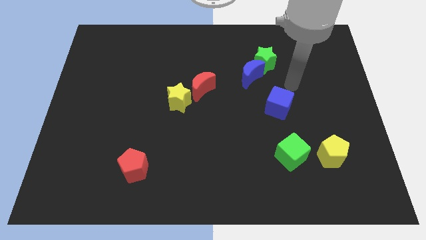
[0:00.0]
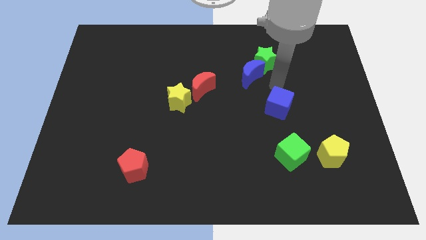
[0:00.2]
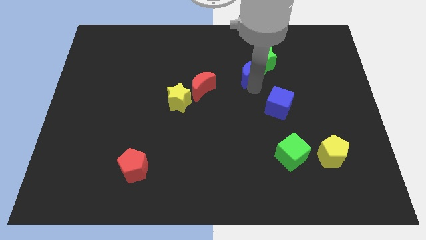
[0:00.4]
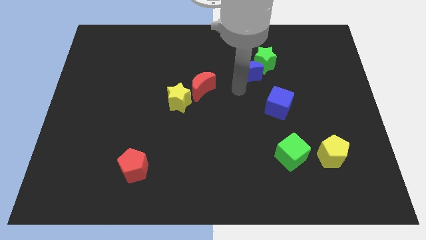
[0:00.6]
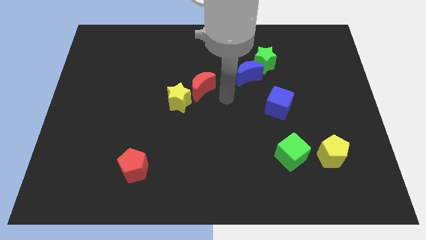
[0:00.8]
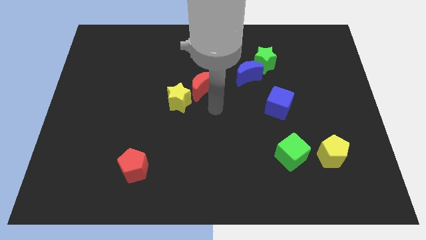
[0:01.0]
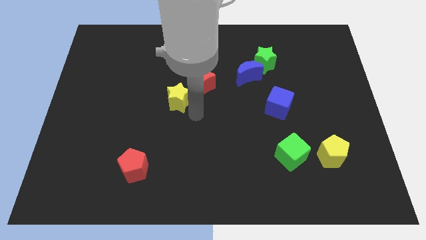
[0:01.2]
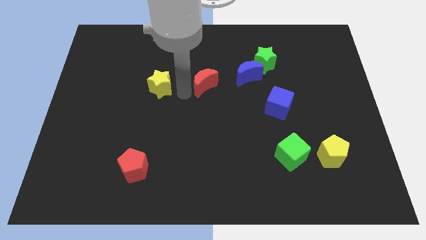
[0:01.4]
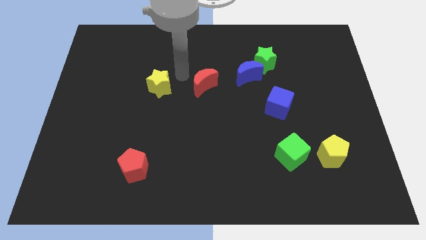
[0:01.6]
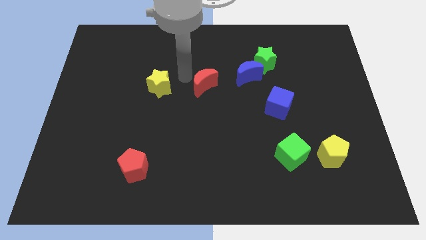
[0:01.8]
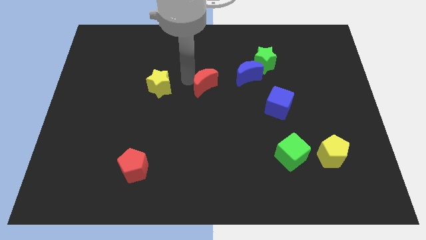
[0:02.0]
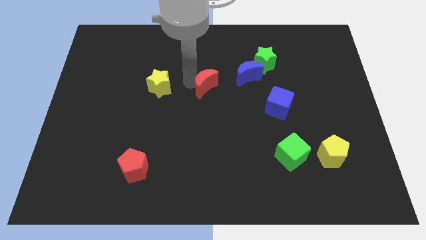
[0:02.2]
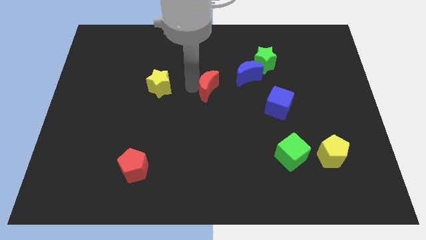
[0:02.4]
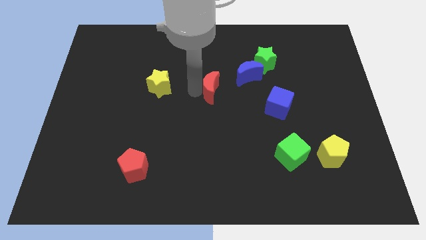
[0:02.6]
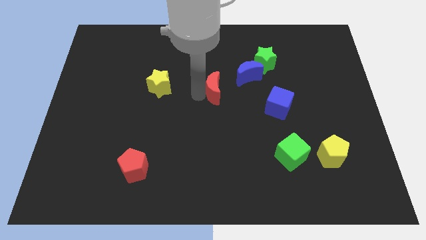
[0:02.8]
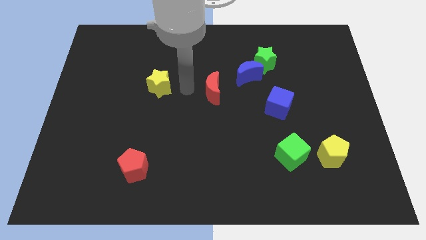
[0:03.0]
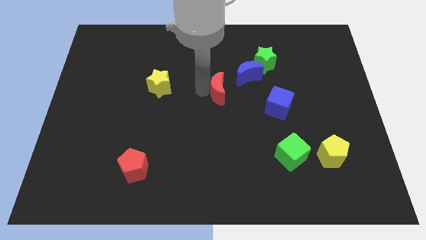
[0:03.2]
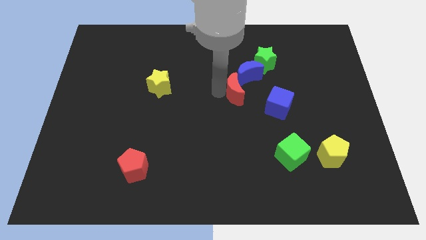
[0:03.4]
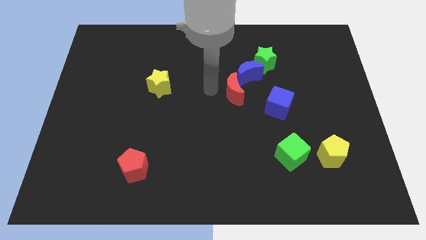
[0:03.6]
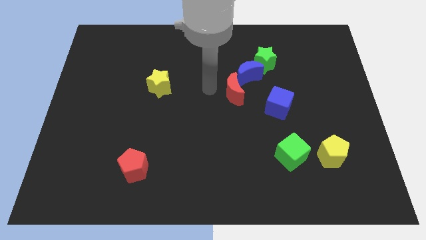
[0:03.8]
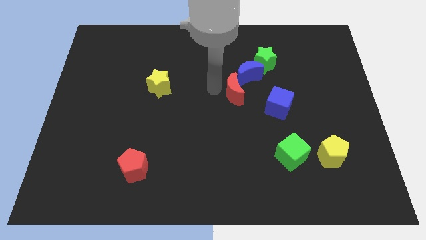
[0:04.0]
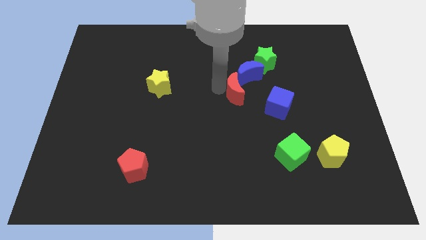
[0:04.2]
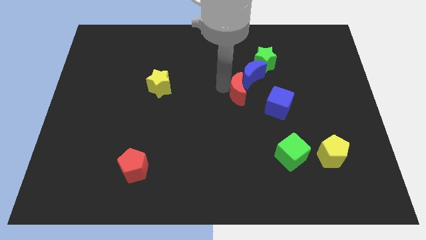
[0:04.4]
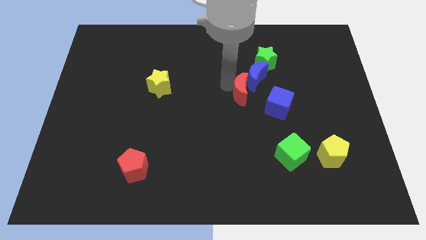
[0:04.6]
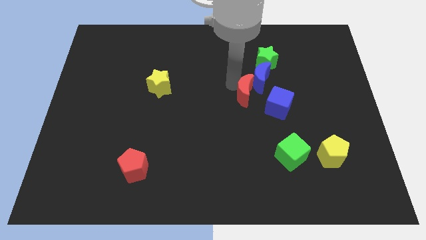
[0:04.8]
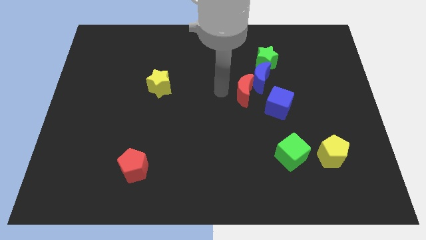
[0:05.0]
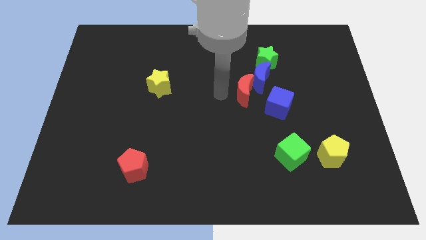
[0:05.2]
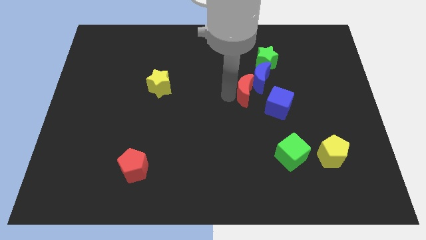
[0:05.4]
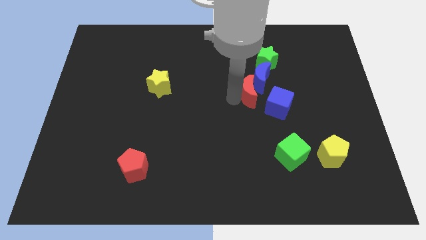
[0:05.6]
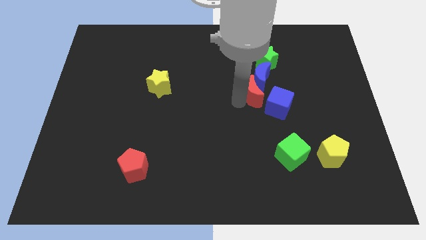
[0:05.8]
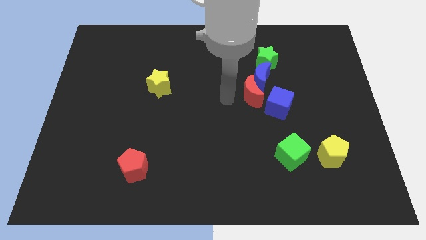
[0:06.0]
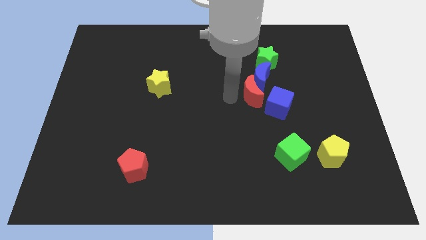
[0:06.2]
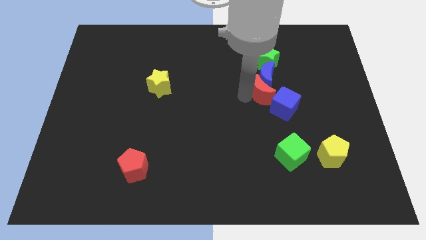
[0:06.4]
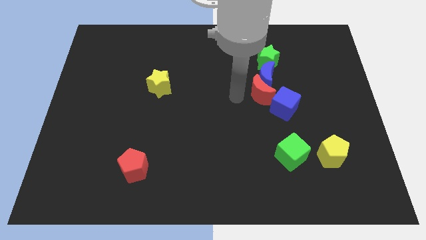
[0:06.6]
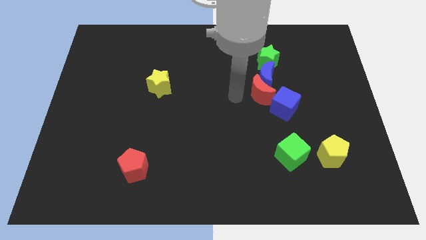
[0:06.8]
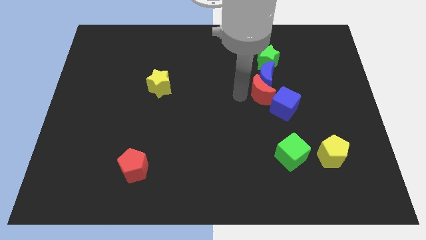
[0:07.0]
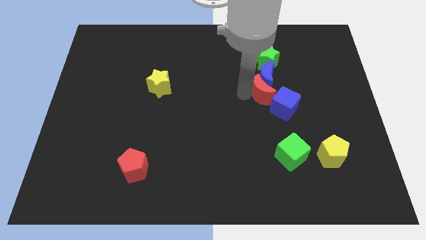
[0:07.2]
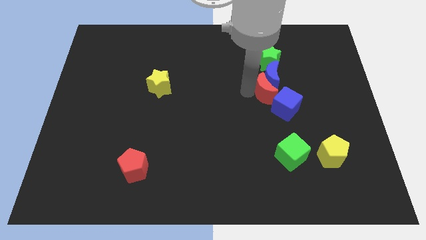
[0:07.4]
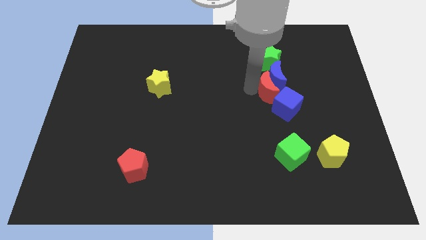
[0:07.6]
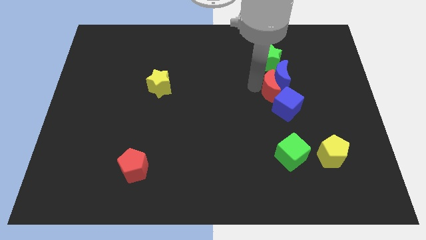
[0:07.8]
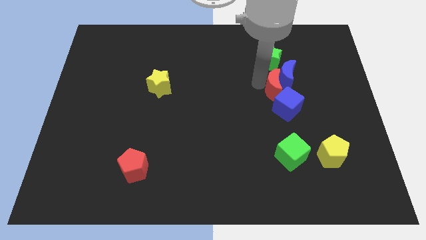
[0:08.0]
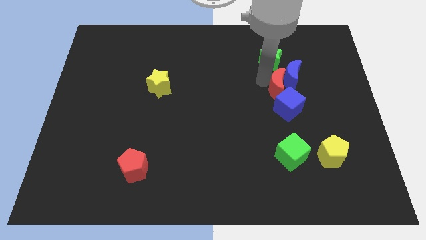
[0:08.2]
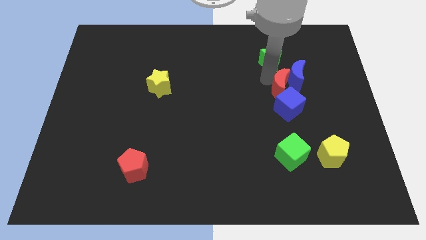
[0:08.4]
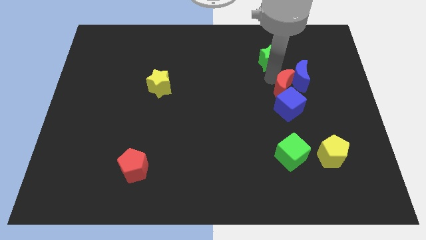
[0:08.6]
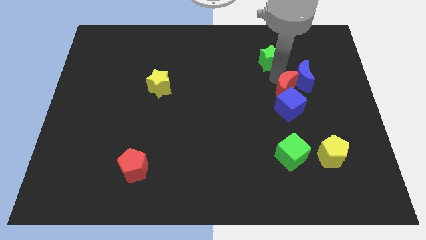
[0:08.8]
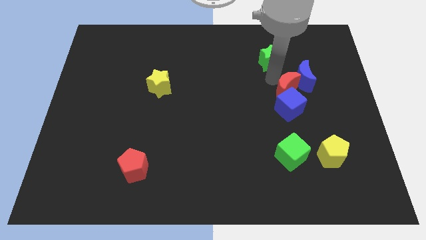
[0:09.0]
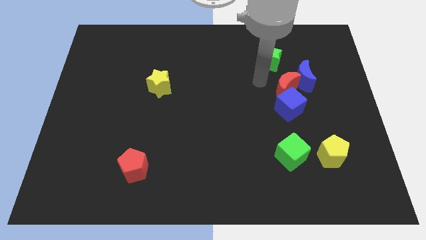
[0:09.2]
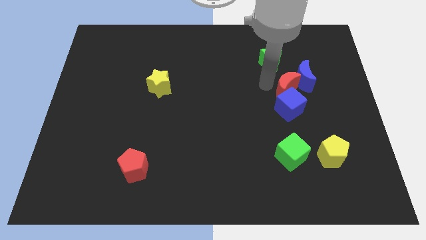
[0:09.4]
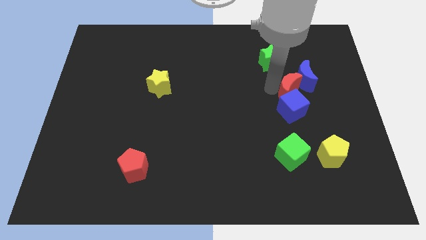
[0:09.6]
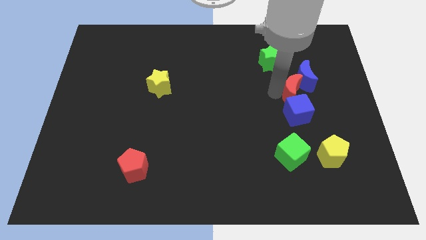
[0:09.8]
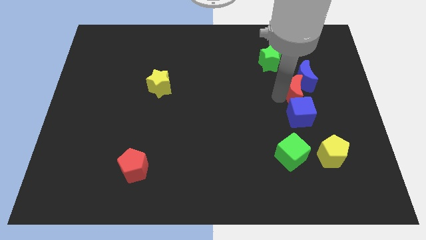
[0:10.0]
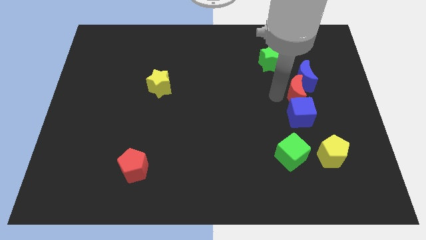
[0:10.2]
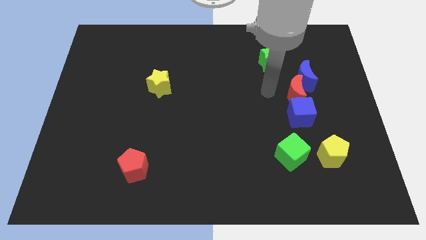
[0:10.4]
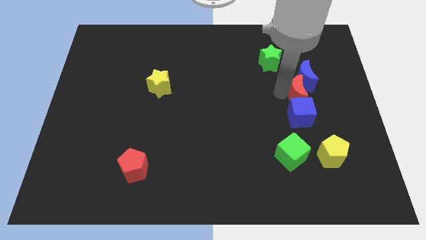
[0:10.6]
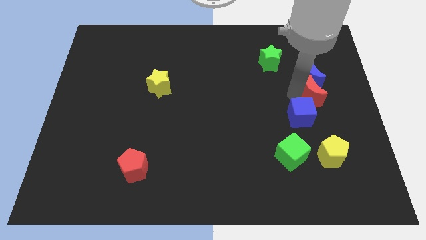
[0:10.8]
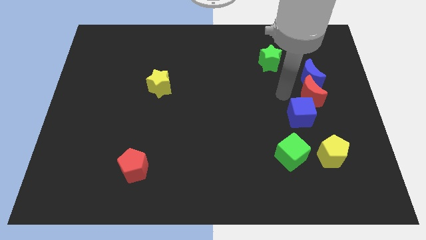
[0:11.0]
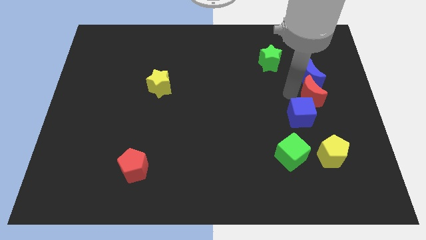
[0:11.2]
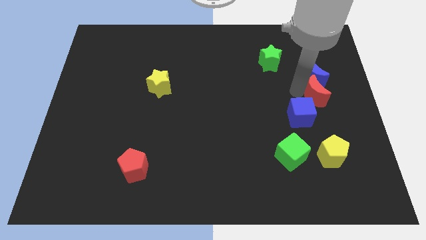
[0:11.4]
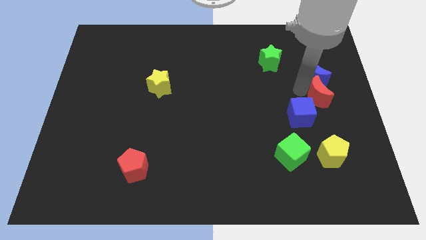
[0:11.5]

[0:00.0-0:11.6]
slide the red moon to the right side of the board
